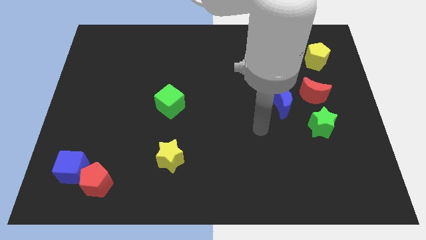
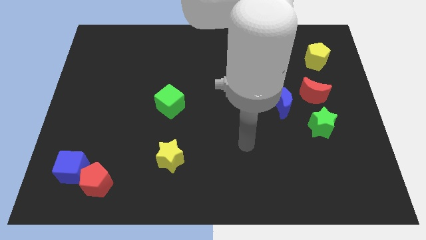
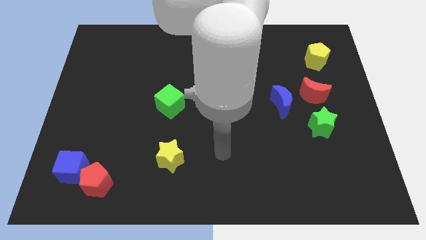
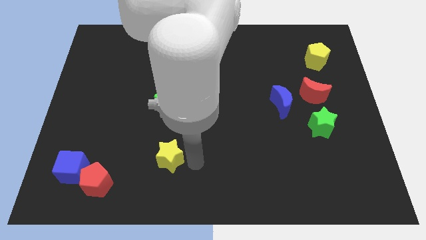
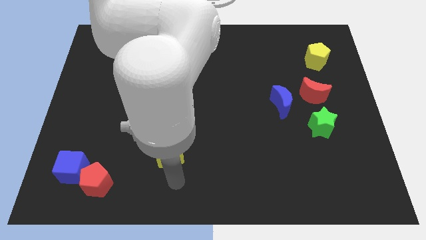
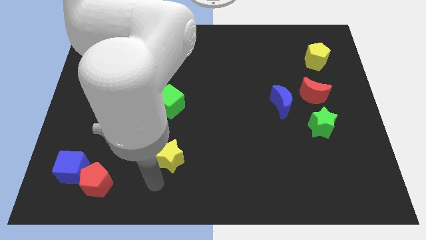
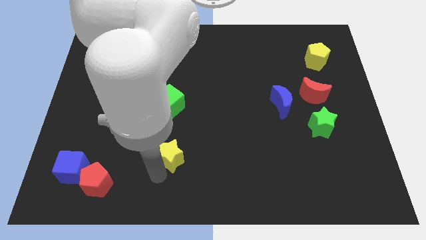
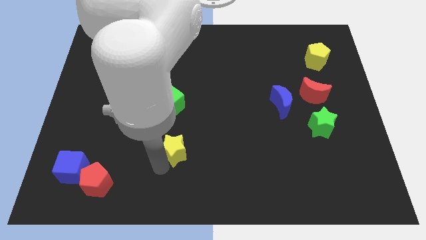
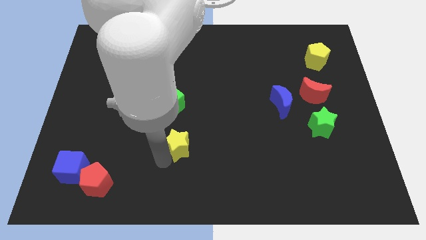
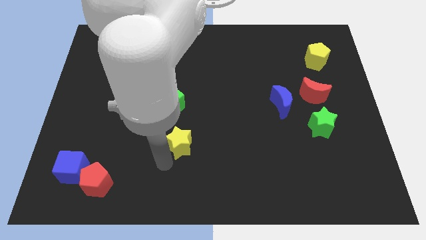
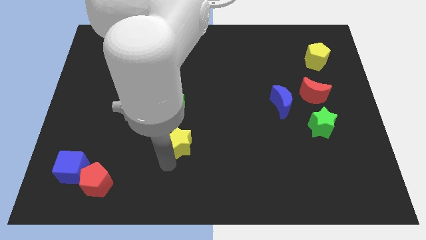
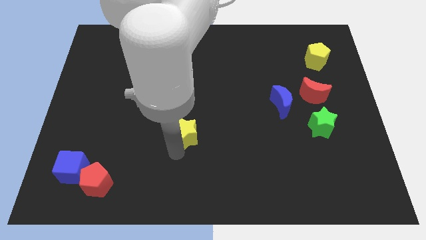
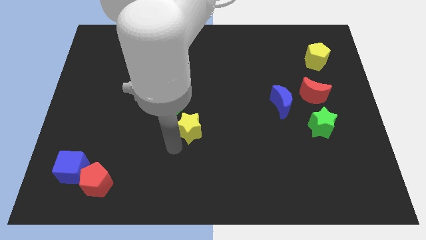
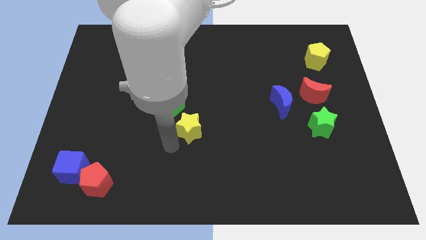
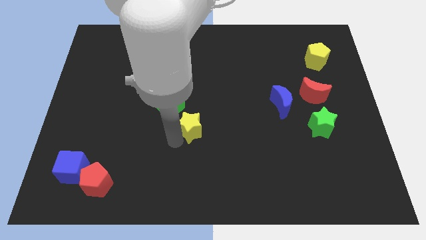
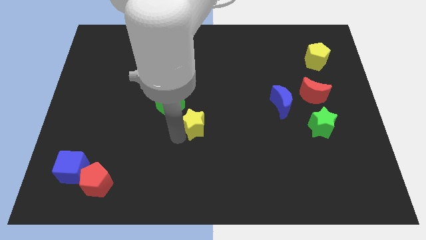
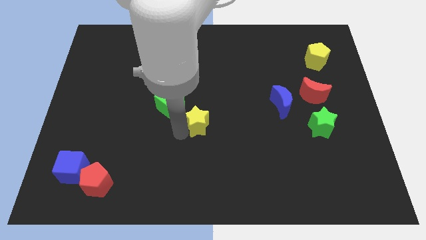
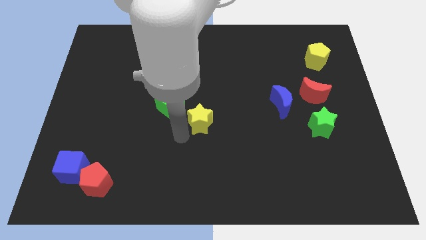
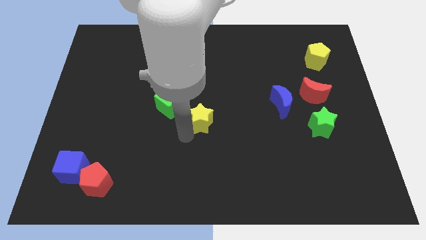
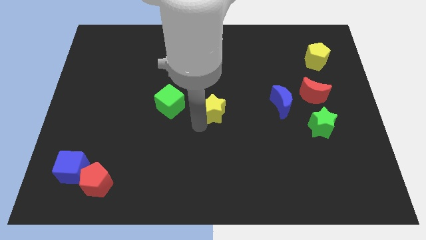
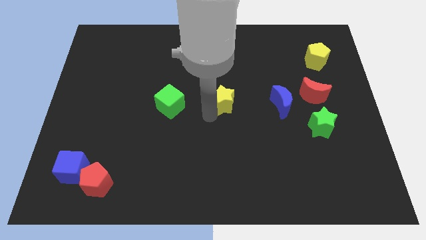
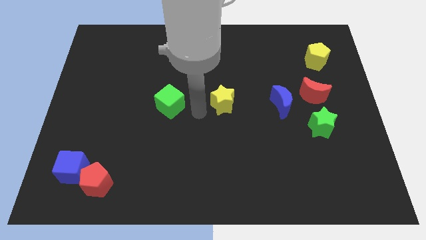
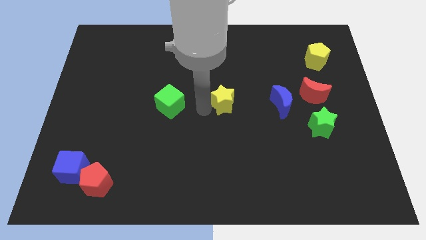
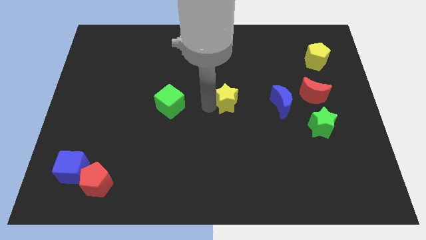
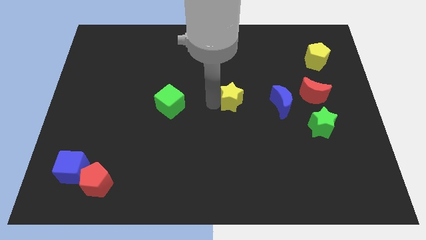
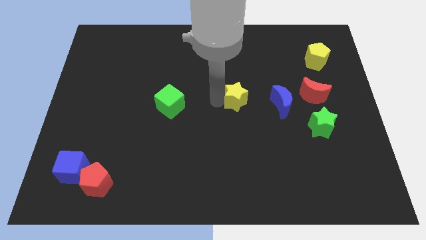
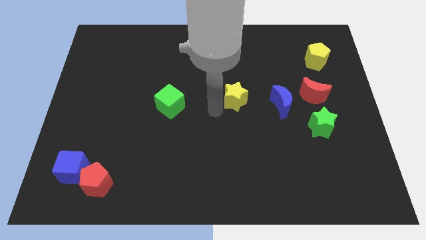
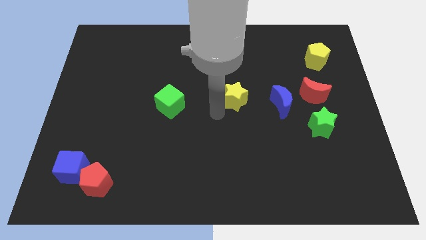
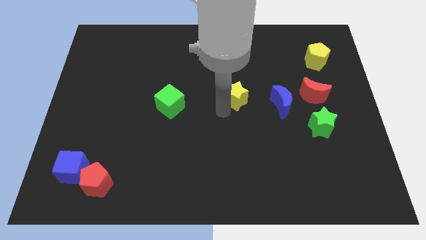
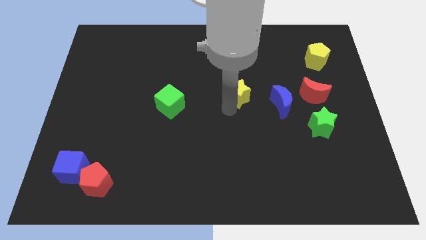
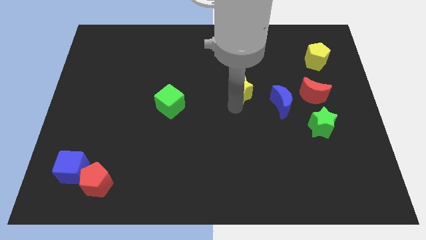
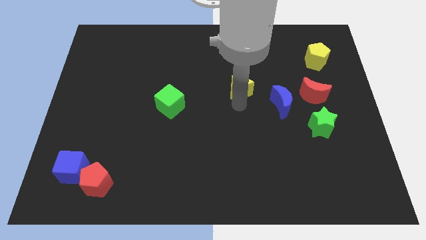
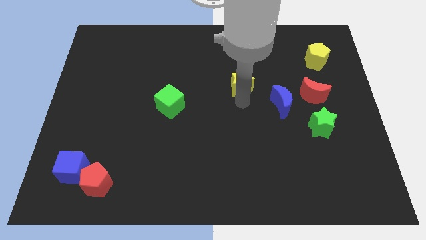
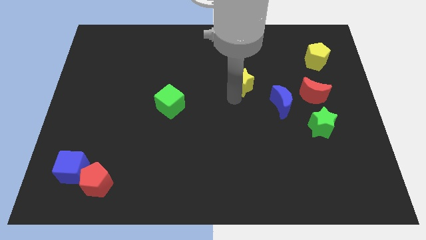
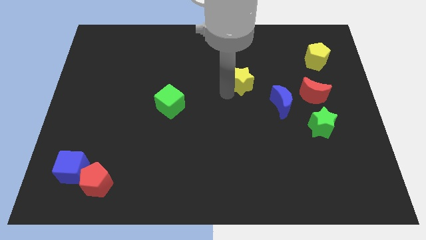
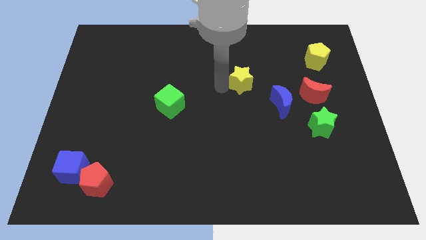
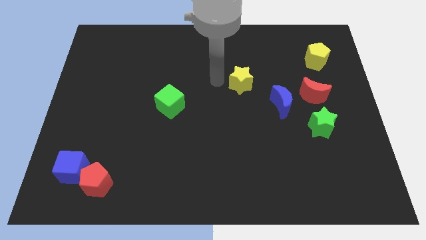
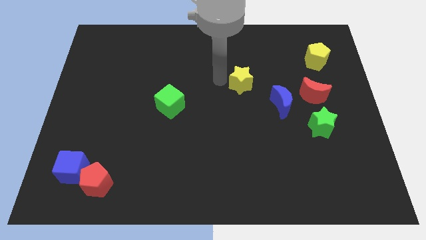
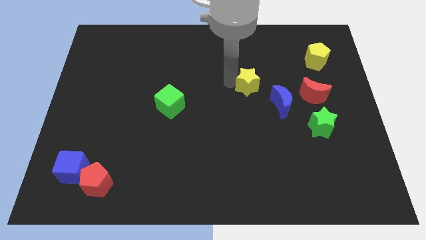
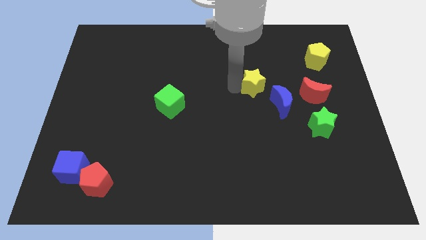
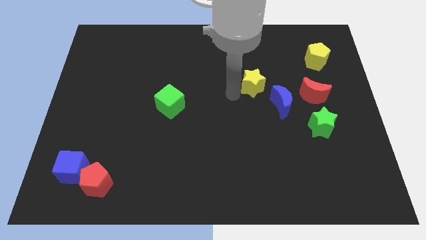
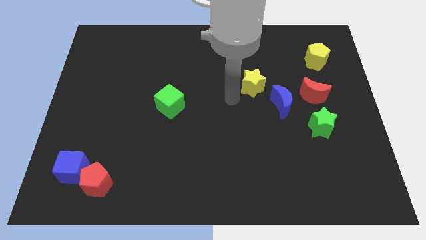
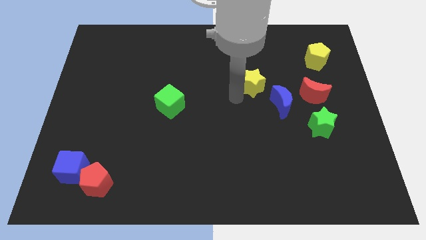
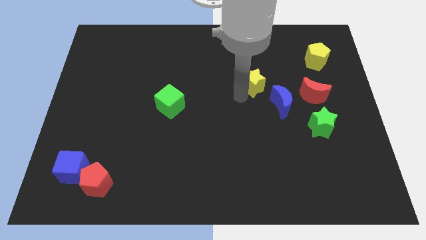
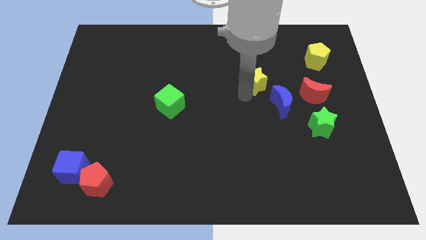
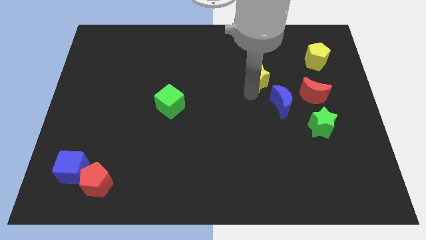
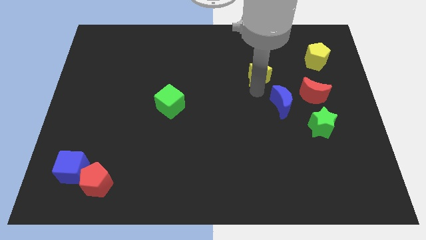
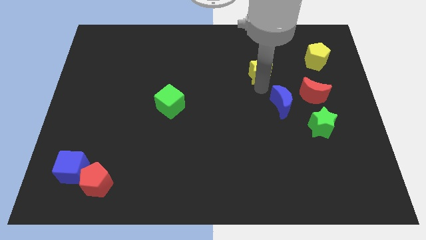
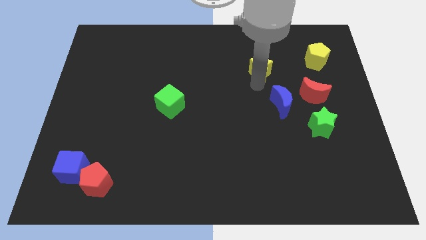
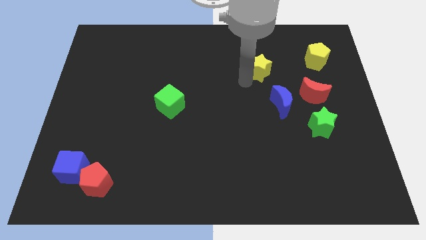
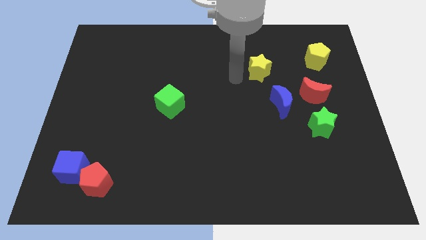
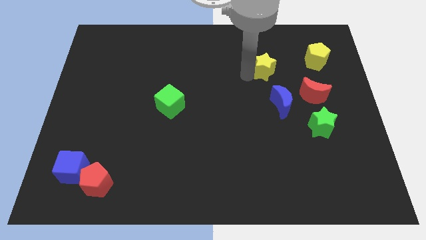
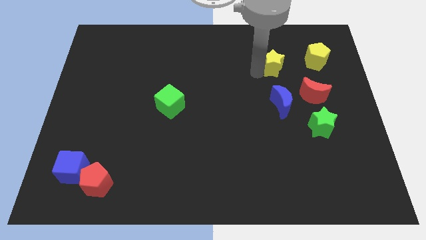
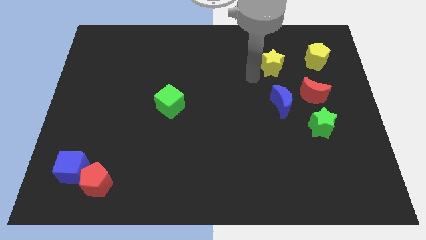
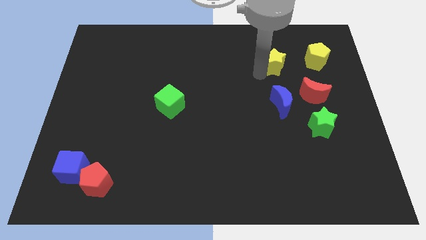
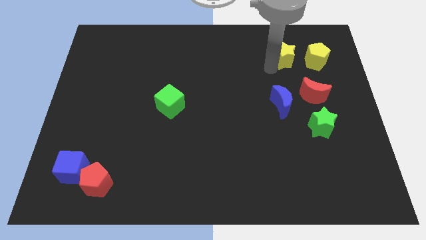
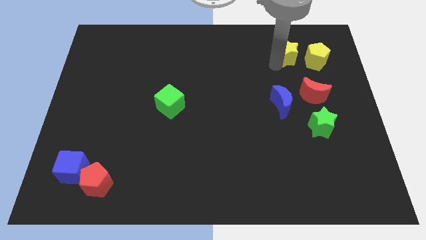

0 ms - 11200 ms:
slide the yellow star above the red moon

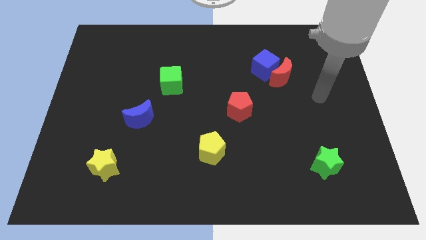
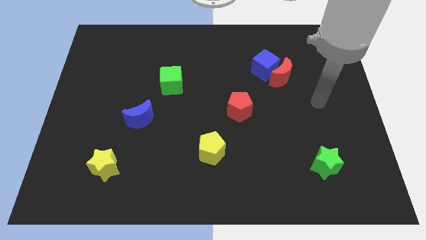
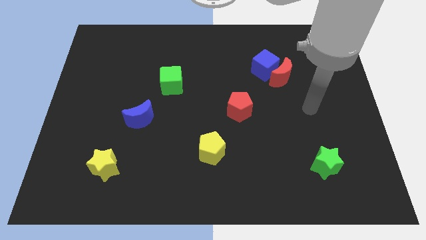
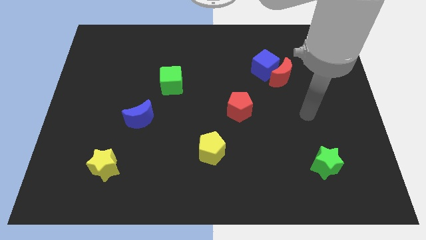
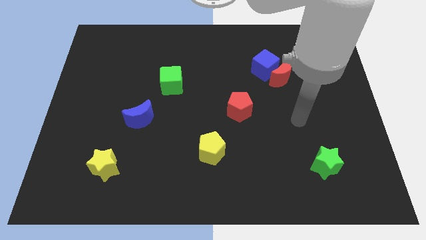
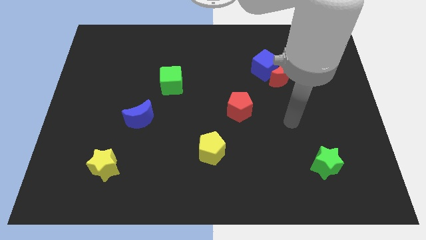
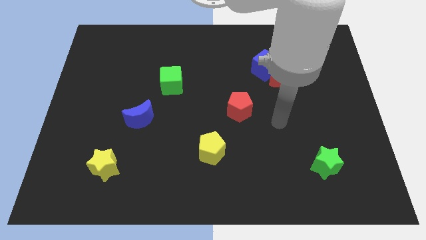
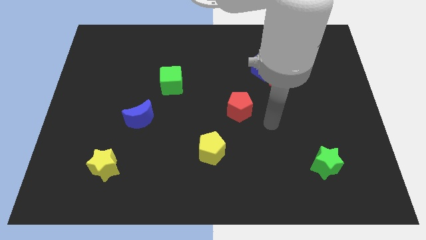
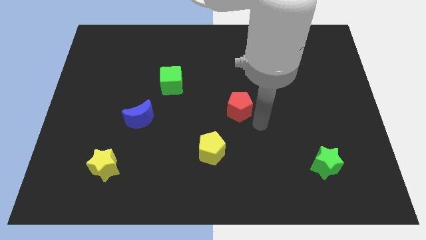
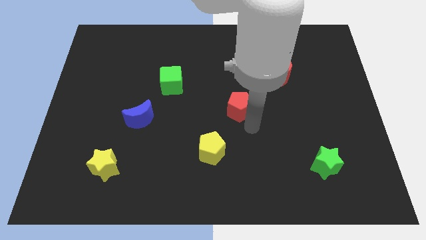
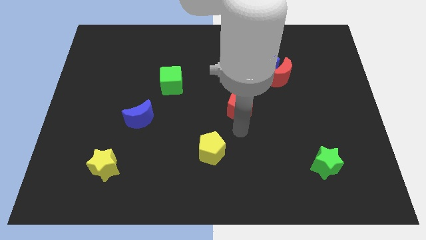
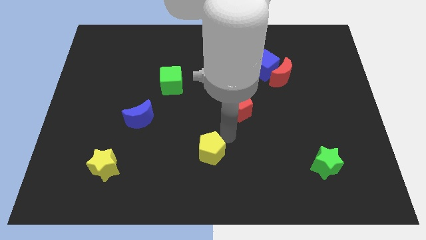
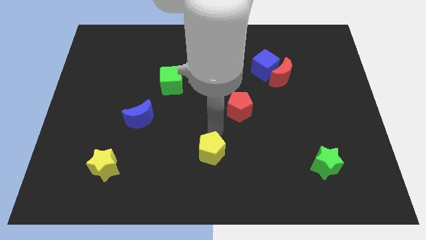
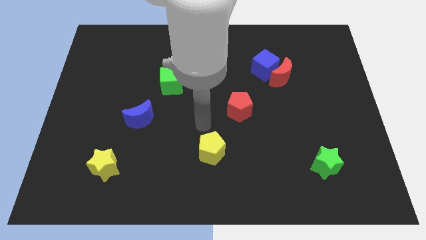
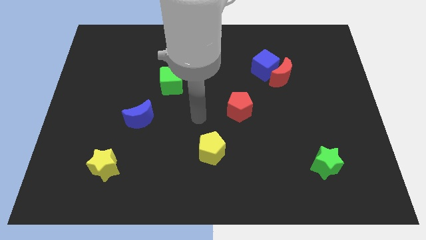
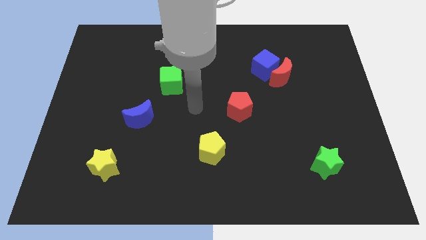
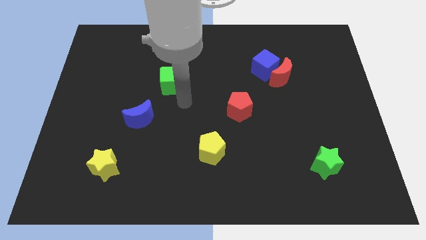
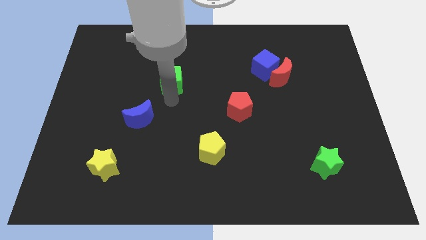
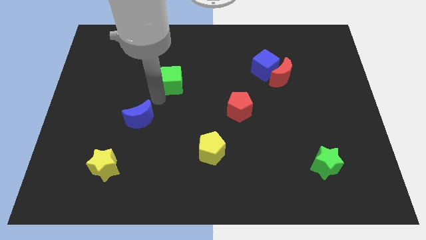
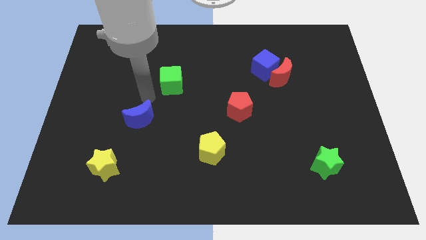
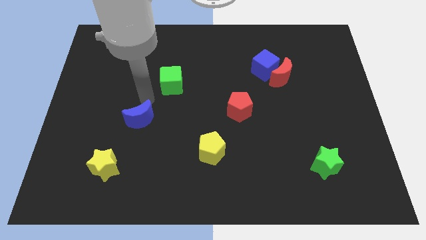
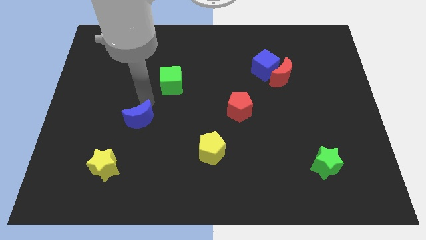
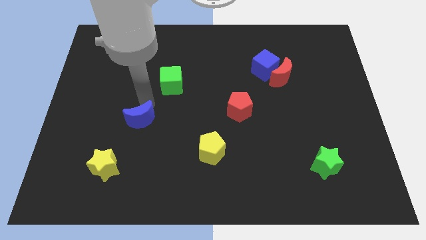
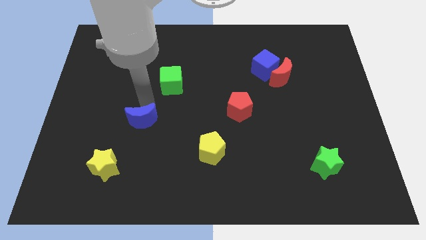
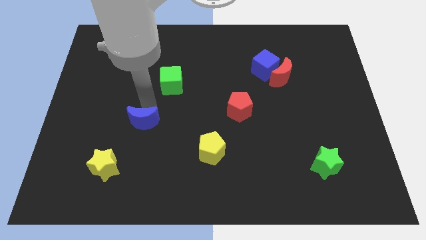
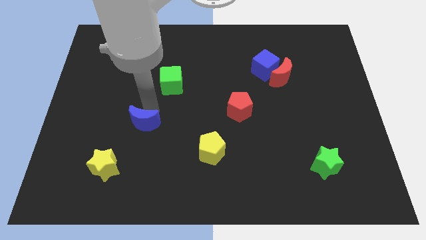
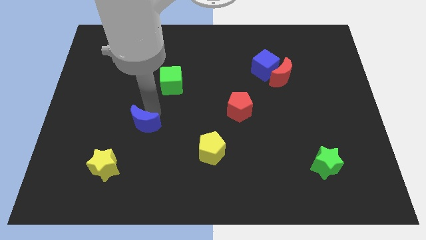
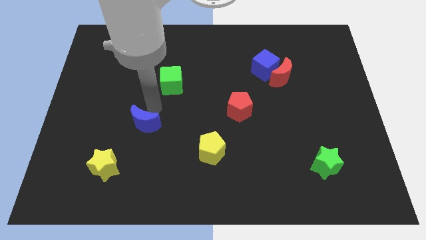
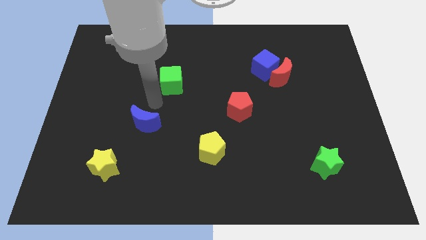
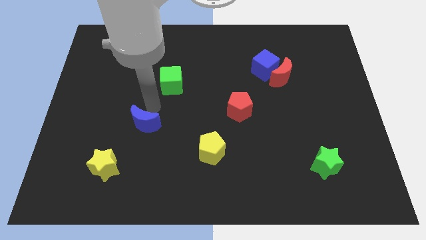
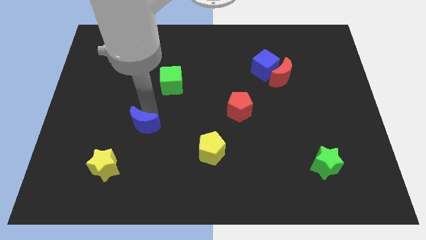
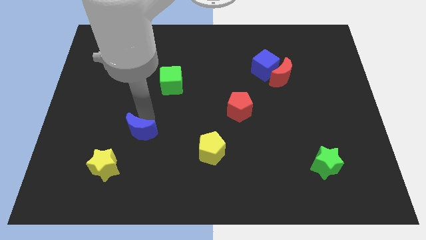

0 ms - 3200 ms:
push the blue moon to the top right of the yellow star
